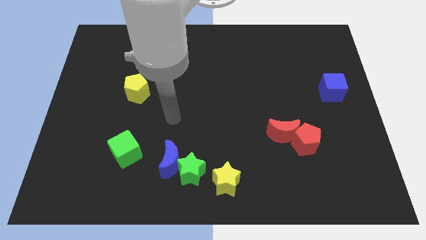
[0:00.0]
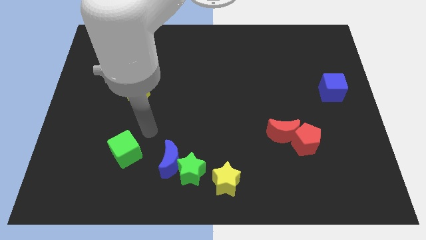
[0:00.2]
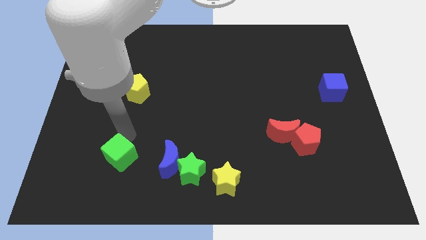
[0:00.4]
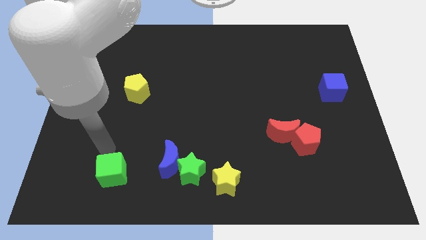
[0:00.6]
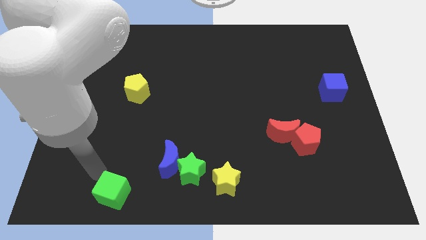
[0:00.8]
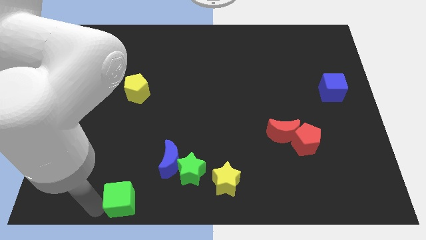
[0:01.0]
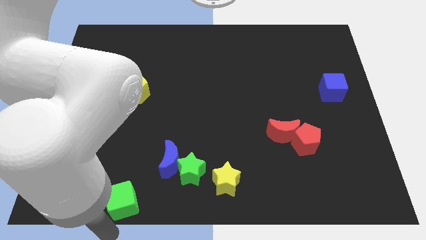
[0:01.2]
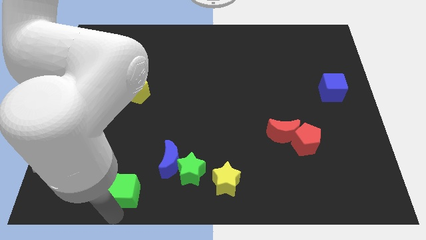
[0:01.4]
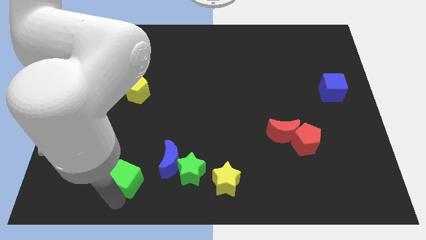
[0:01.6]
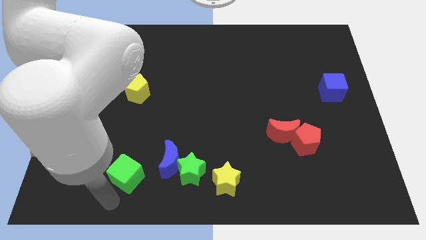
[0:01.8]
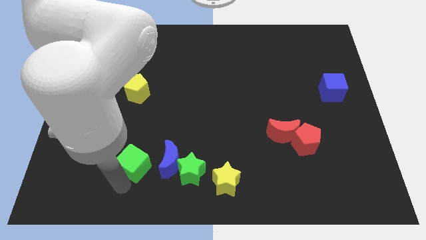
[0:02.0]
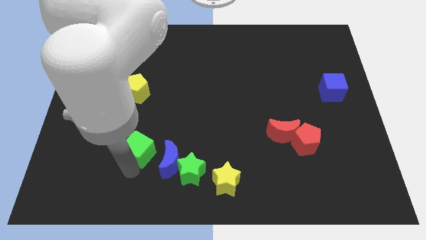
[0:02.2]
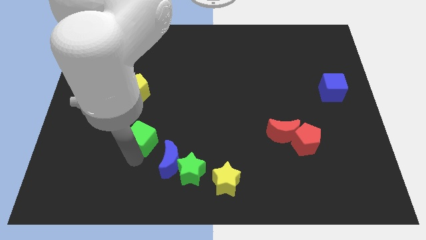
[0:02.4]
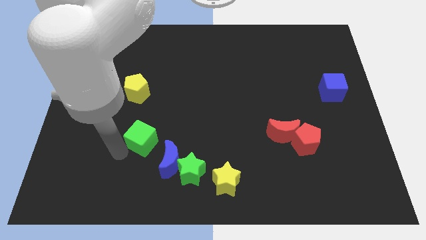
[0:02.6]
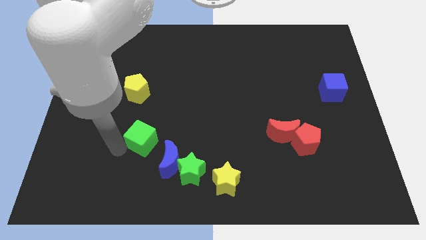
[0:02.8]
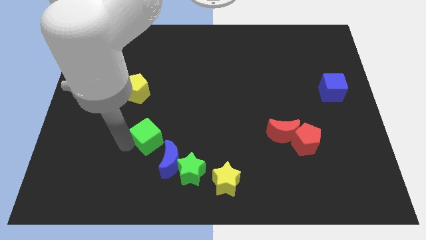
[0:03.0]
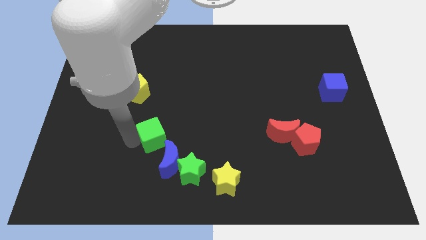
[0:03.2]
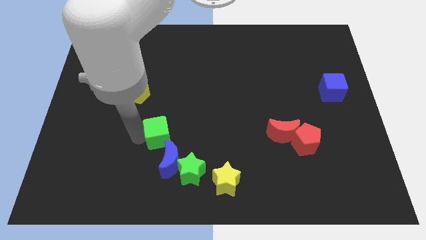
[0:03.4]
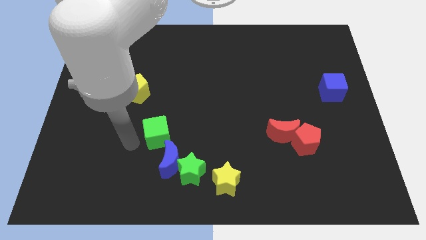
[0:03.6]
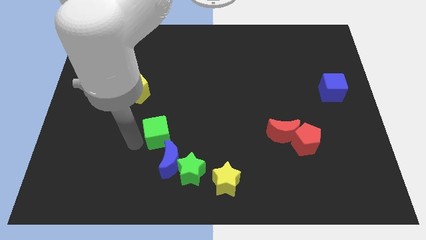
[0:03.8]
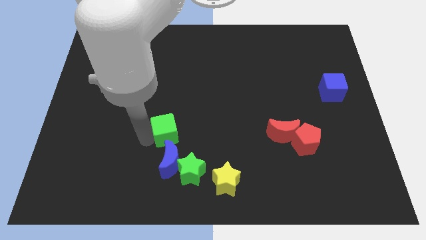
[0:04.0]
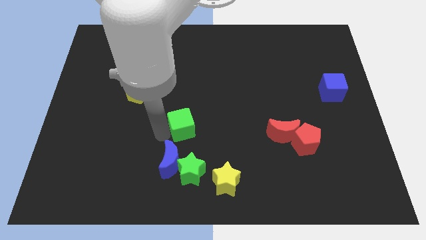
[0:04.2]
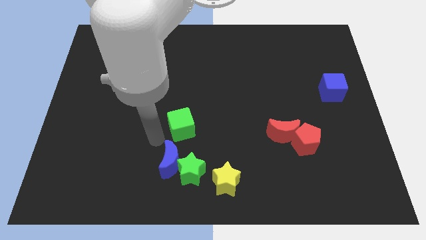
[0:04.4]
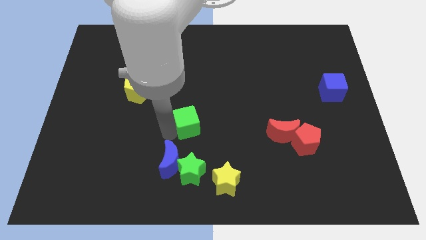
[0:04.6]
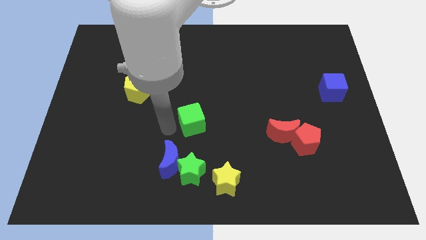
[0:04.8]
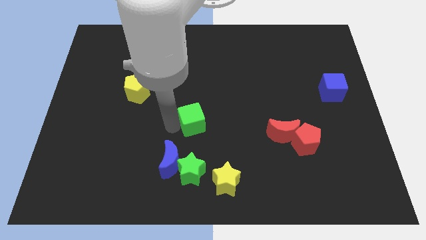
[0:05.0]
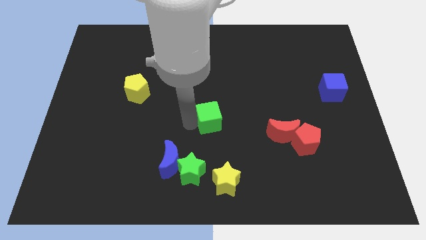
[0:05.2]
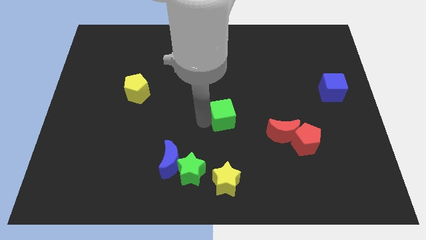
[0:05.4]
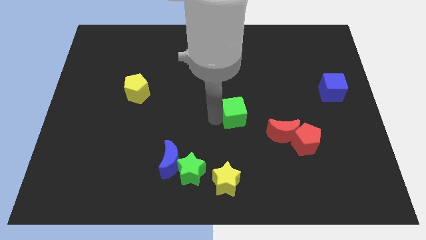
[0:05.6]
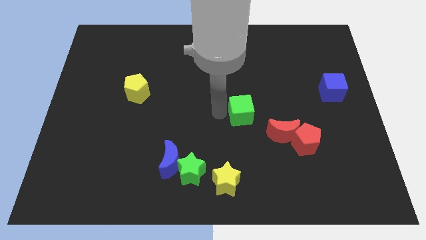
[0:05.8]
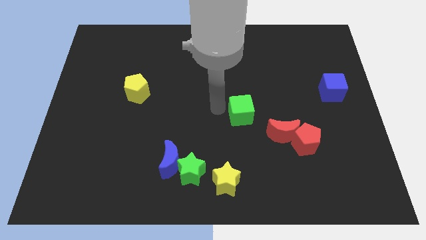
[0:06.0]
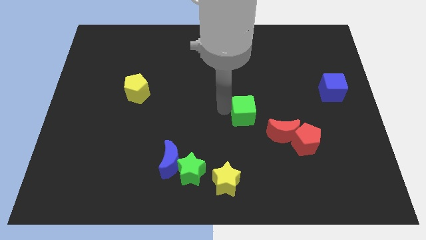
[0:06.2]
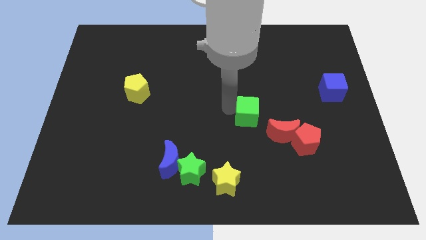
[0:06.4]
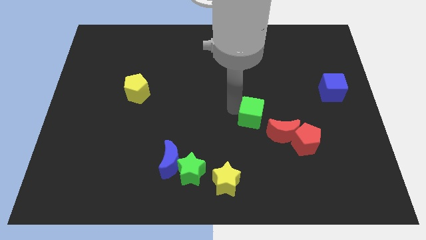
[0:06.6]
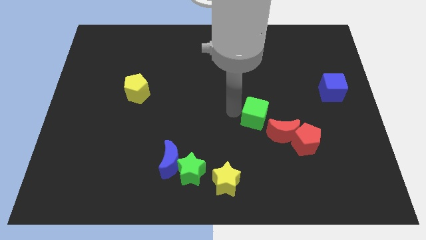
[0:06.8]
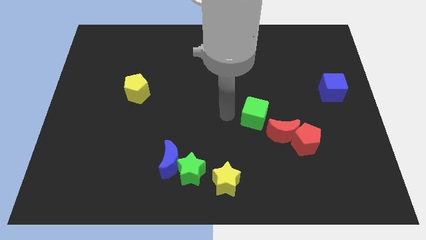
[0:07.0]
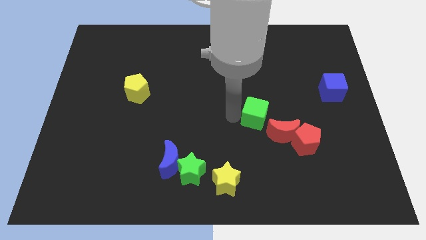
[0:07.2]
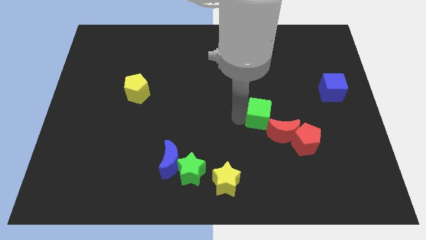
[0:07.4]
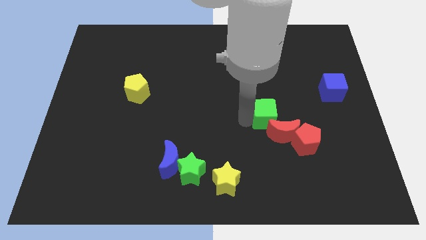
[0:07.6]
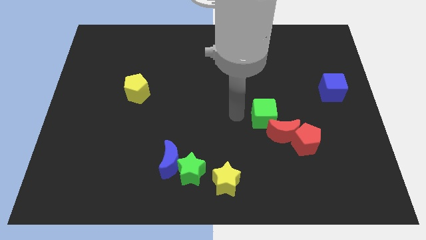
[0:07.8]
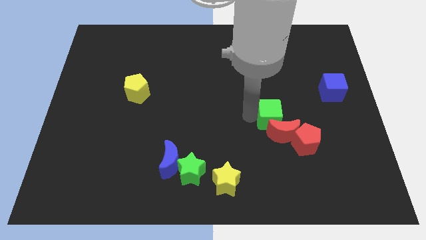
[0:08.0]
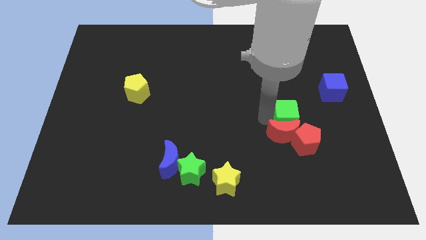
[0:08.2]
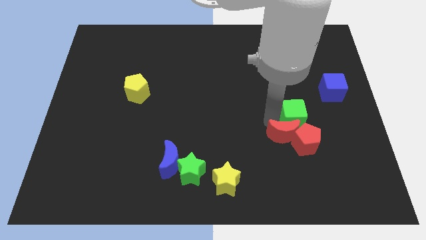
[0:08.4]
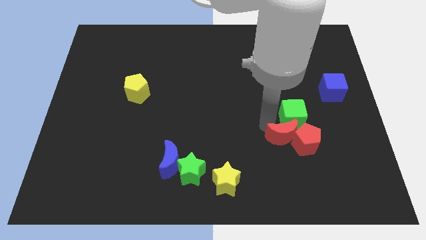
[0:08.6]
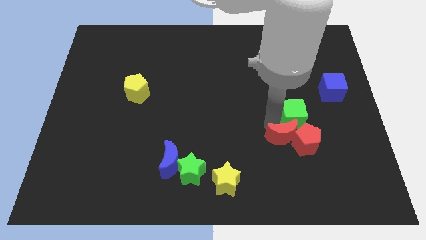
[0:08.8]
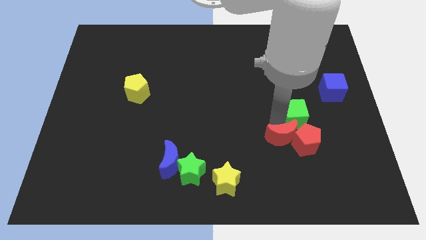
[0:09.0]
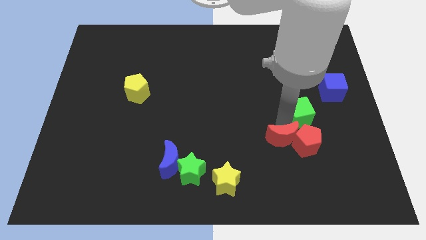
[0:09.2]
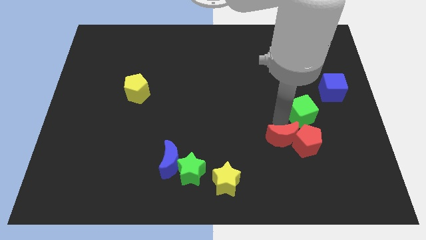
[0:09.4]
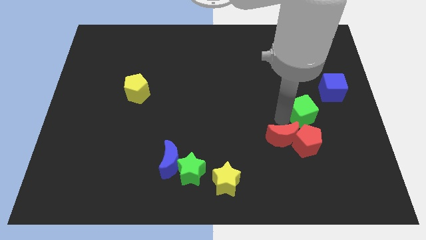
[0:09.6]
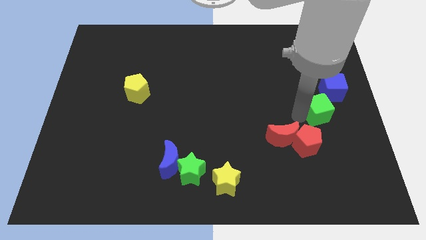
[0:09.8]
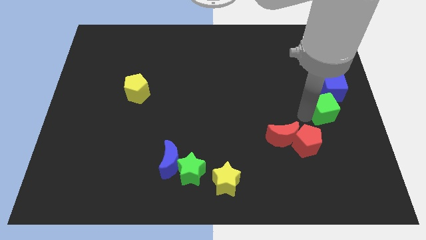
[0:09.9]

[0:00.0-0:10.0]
push the green cube to the right side

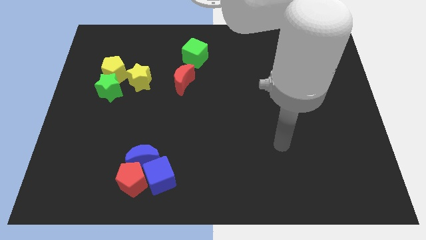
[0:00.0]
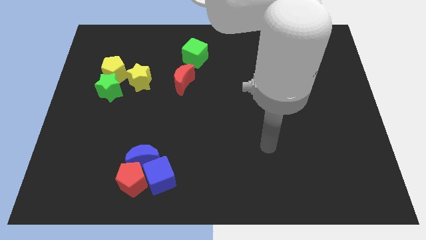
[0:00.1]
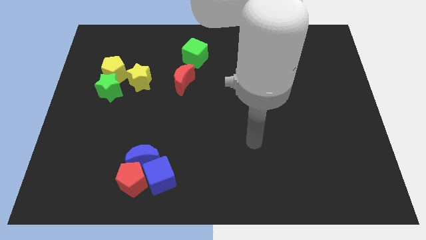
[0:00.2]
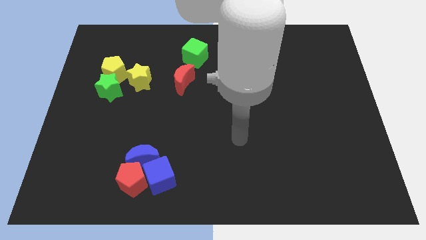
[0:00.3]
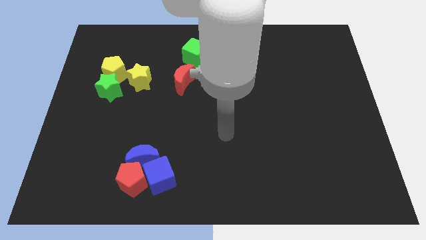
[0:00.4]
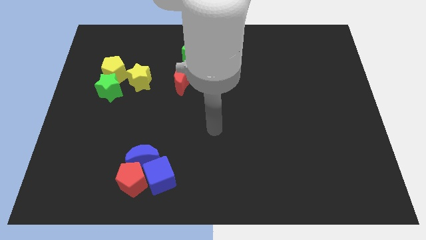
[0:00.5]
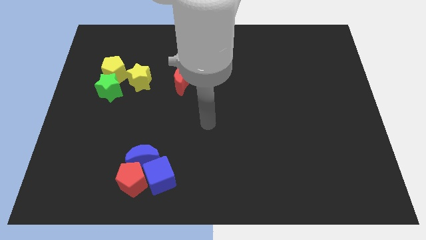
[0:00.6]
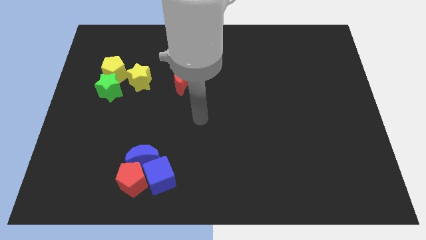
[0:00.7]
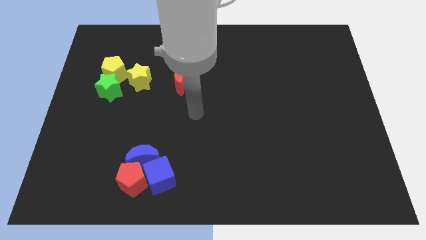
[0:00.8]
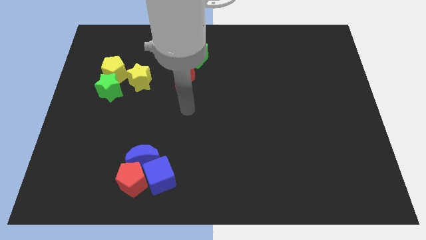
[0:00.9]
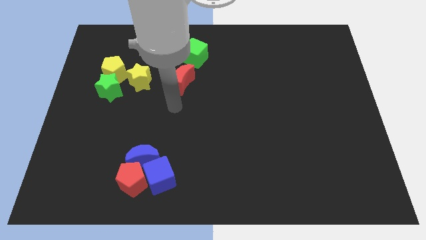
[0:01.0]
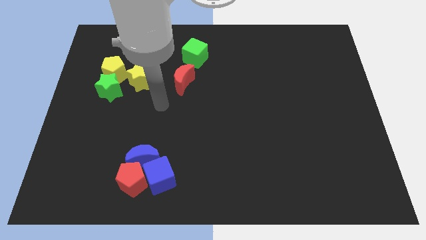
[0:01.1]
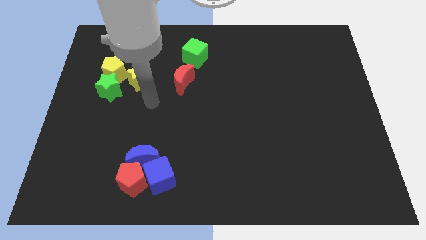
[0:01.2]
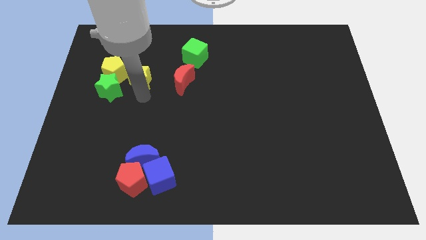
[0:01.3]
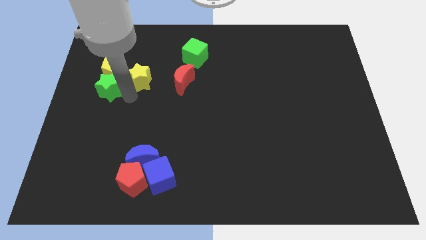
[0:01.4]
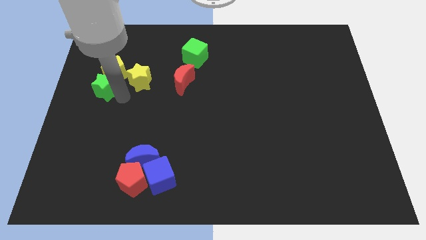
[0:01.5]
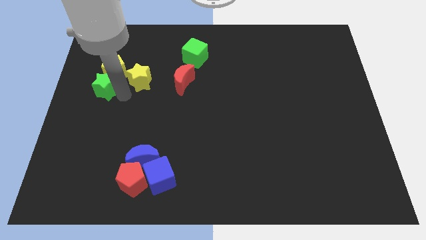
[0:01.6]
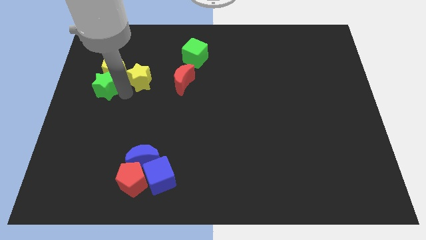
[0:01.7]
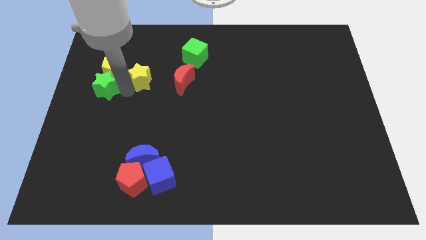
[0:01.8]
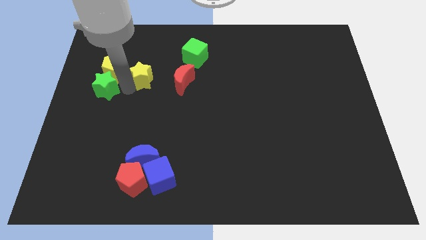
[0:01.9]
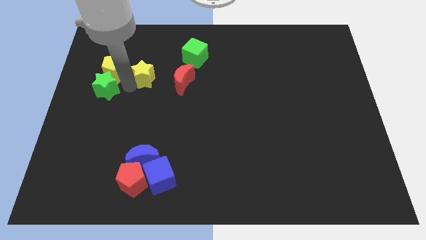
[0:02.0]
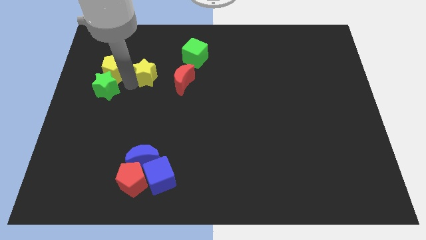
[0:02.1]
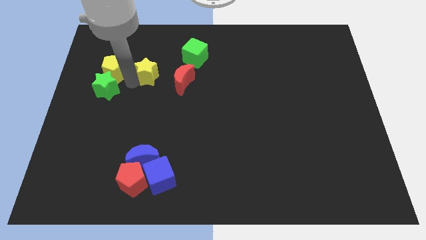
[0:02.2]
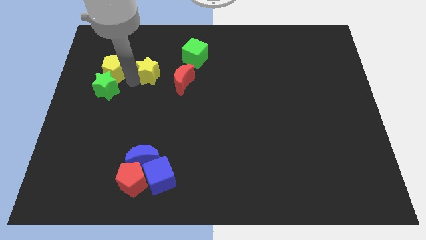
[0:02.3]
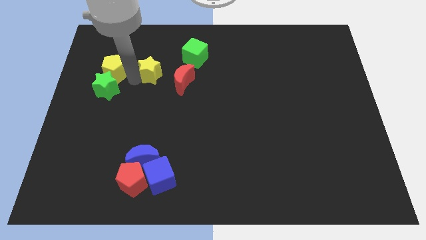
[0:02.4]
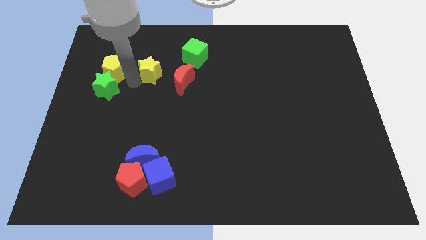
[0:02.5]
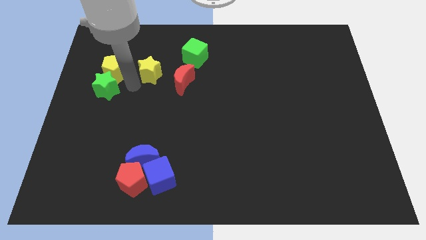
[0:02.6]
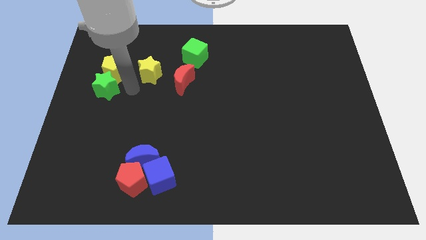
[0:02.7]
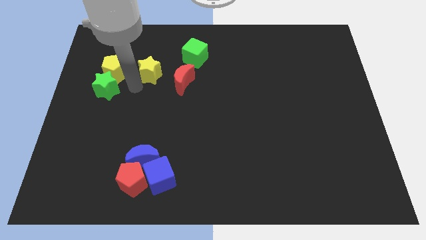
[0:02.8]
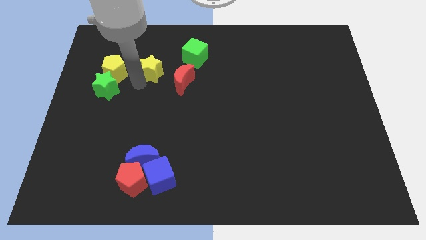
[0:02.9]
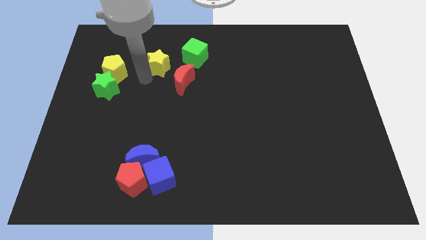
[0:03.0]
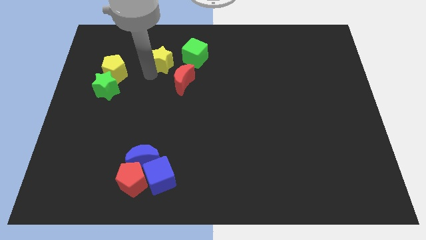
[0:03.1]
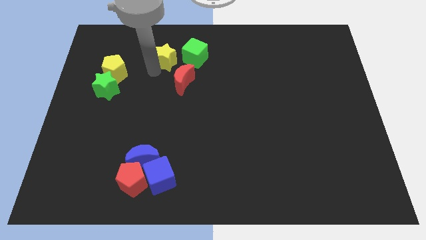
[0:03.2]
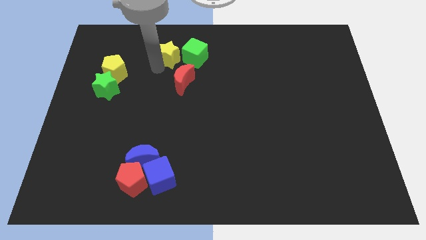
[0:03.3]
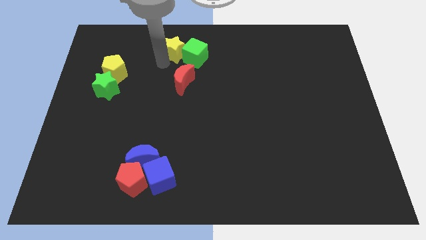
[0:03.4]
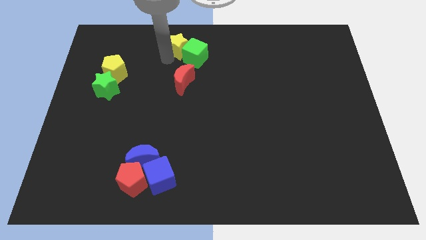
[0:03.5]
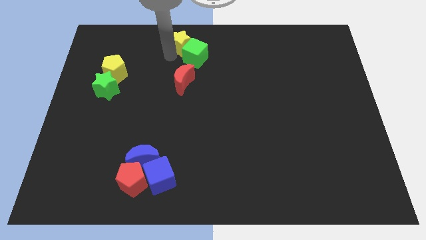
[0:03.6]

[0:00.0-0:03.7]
put the yellow star to the towards your base
